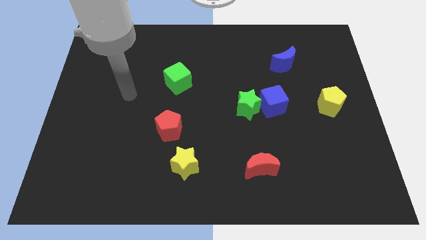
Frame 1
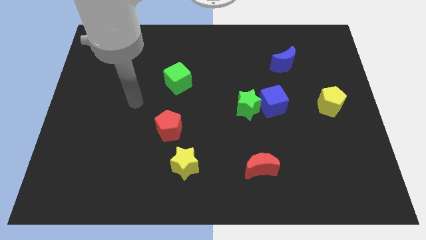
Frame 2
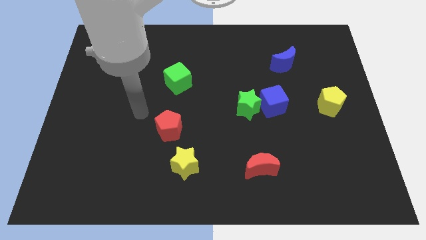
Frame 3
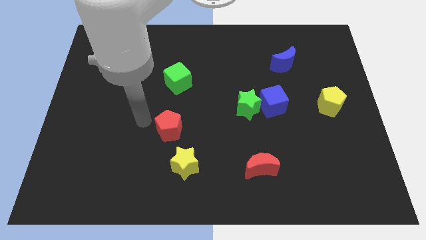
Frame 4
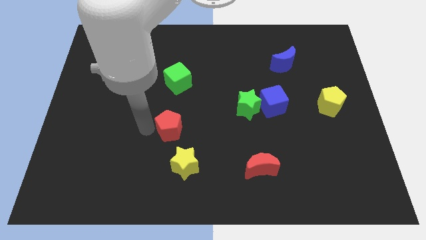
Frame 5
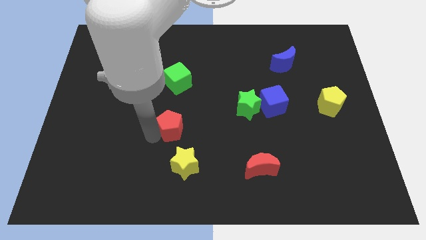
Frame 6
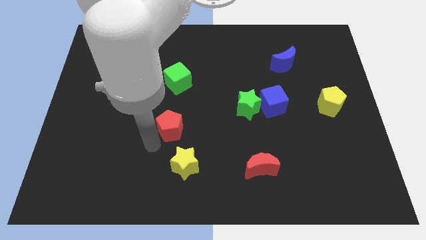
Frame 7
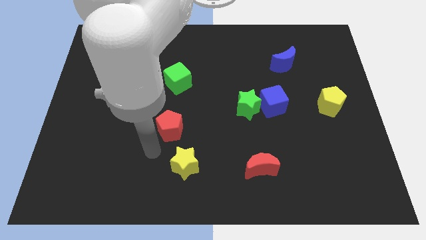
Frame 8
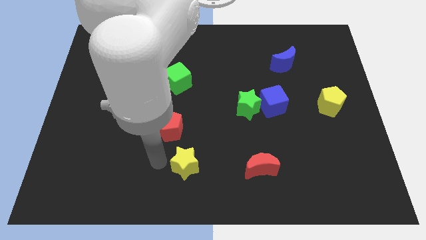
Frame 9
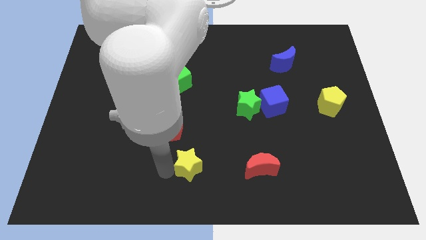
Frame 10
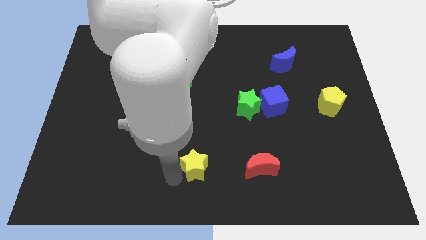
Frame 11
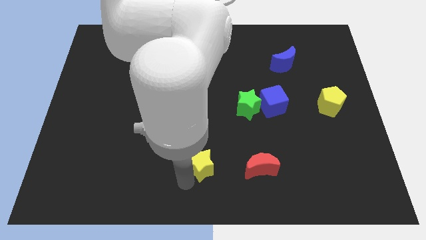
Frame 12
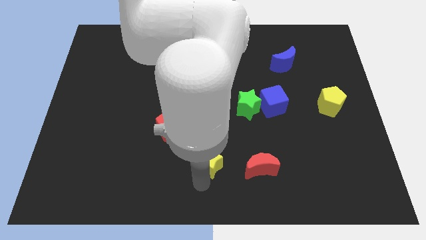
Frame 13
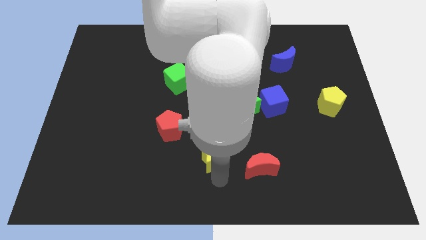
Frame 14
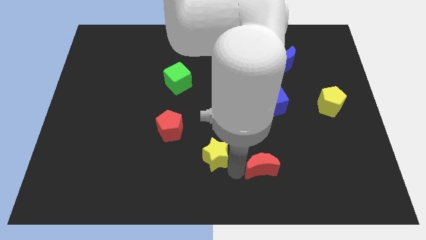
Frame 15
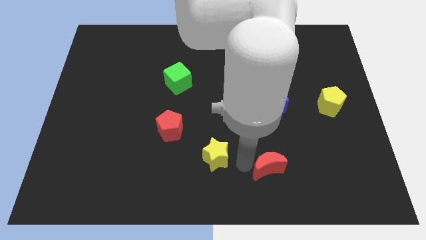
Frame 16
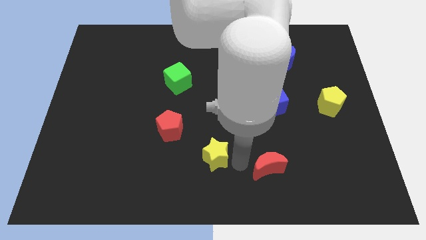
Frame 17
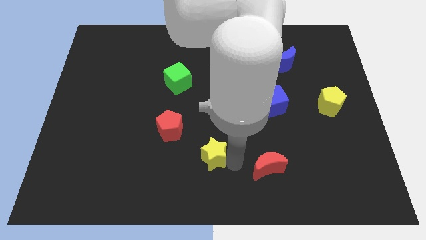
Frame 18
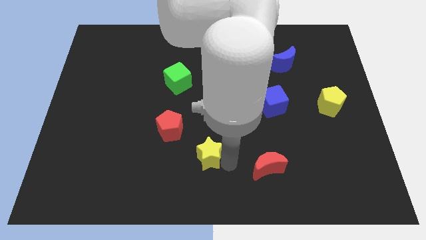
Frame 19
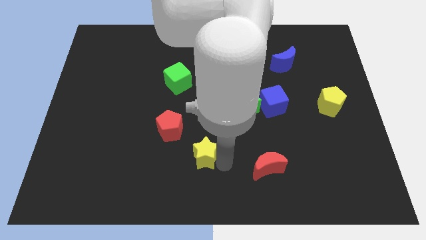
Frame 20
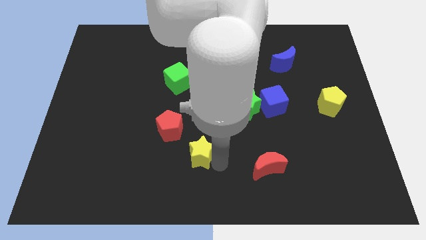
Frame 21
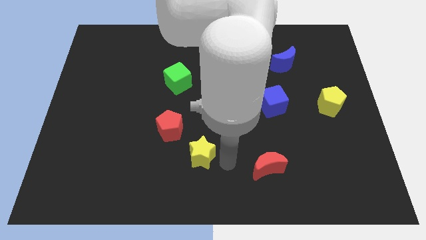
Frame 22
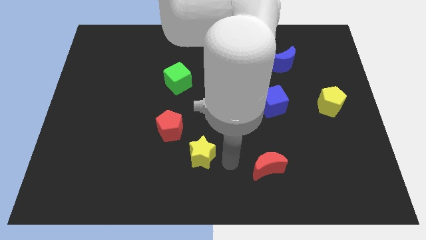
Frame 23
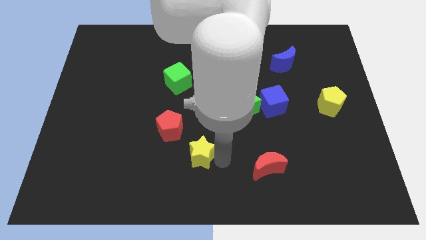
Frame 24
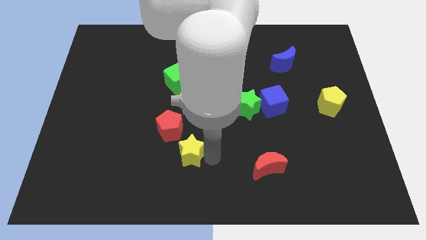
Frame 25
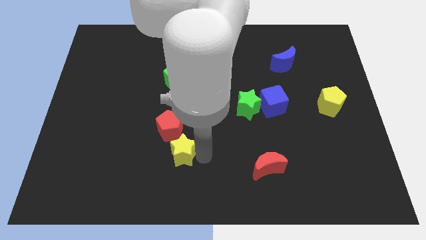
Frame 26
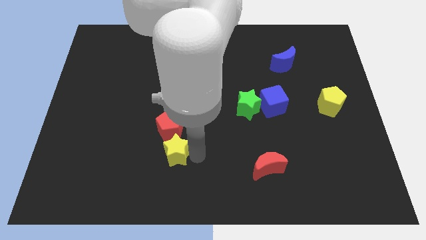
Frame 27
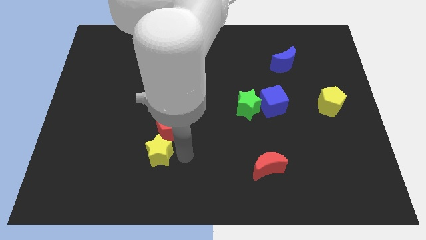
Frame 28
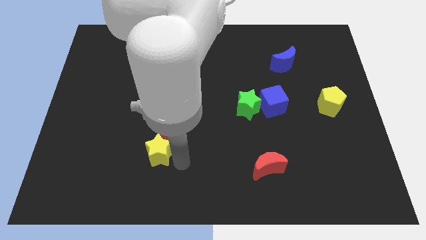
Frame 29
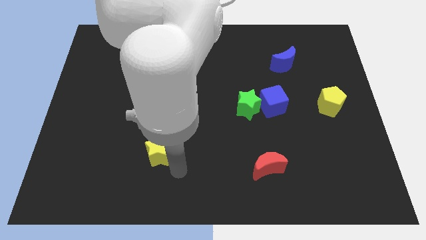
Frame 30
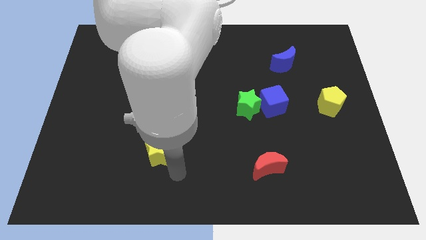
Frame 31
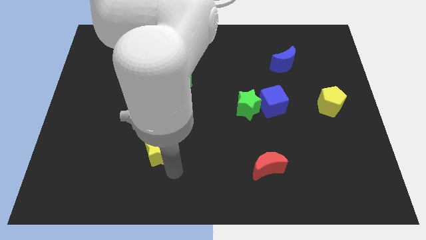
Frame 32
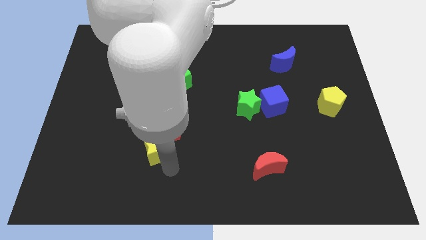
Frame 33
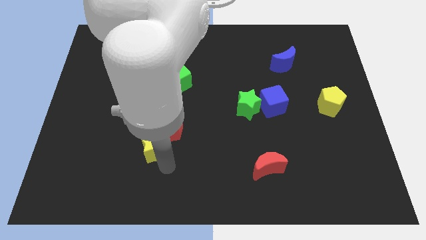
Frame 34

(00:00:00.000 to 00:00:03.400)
slide the yellow star up and then to the left somewhat

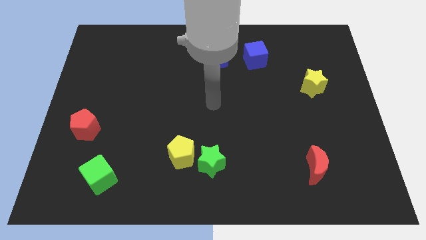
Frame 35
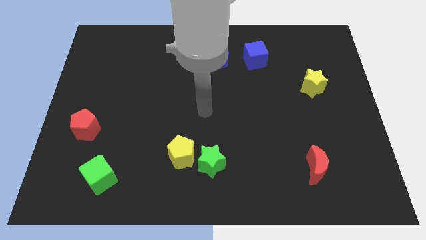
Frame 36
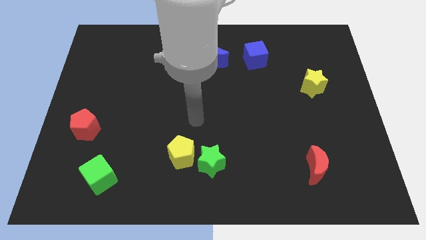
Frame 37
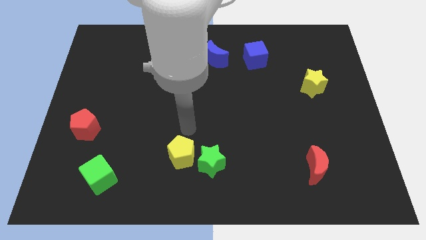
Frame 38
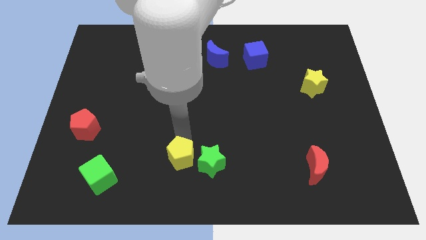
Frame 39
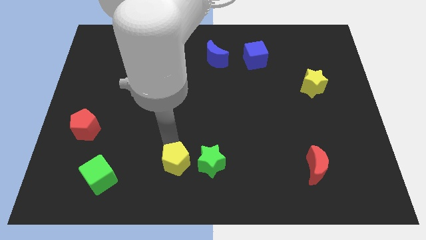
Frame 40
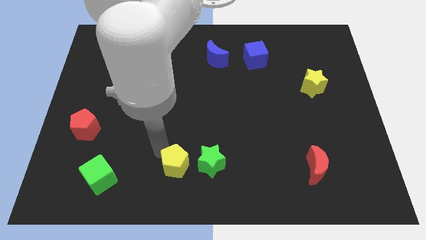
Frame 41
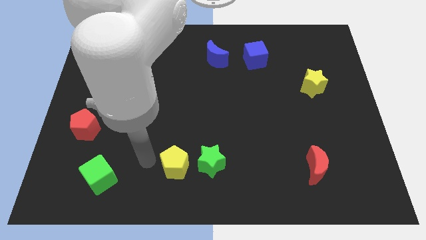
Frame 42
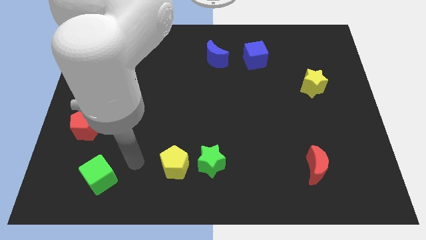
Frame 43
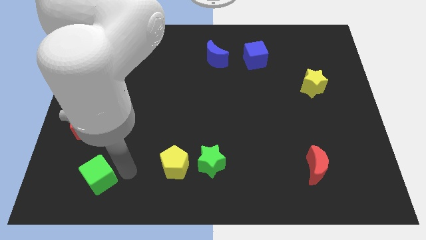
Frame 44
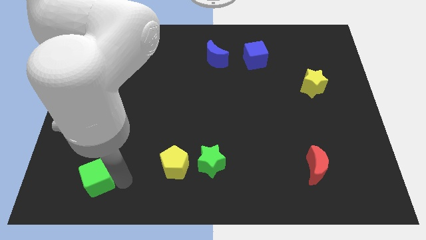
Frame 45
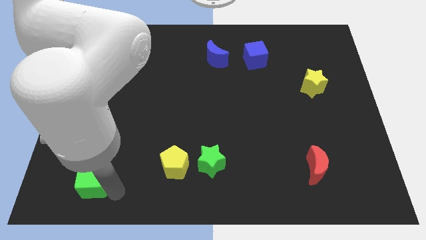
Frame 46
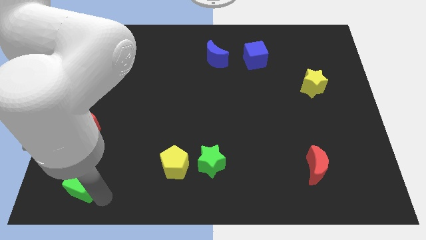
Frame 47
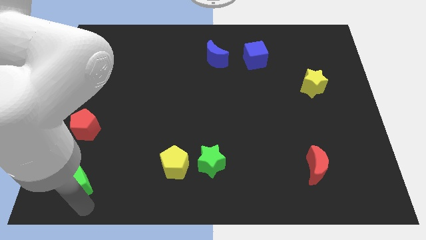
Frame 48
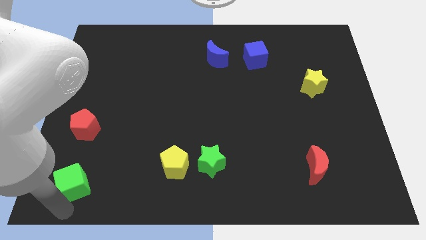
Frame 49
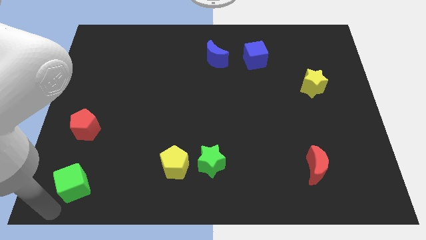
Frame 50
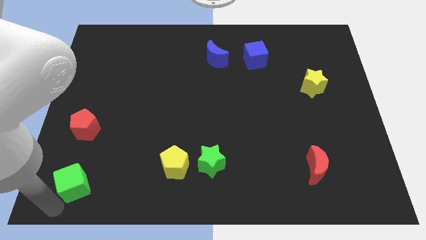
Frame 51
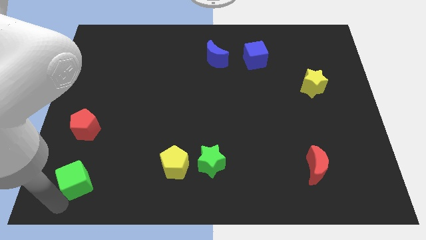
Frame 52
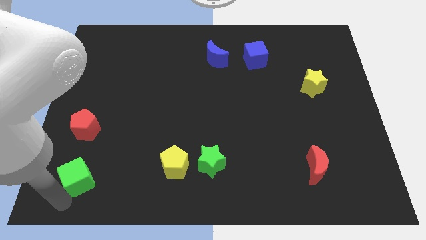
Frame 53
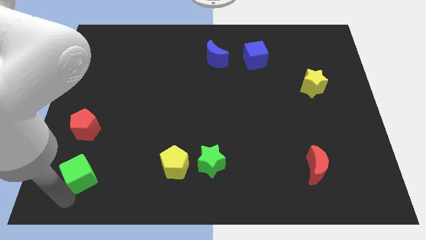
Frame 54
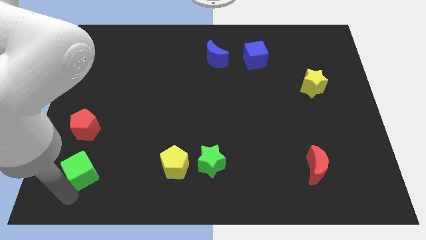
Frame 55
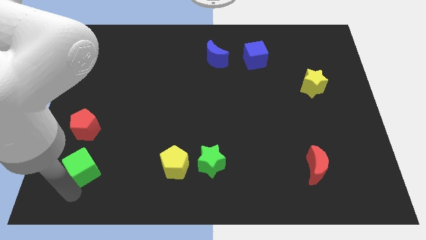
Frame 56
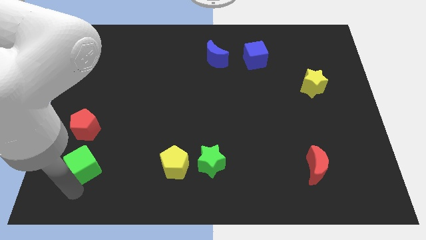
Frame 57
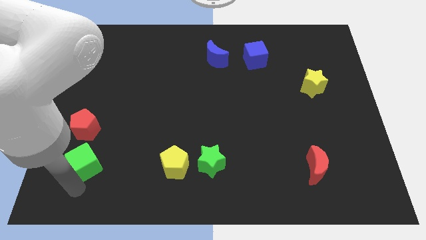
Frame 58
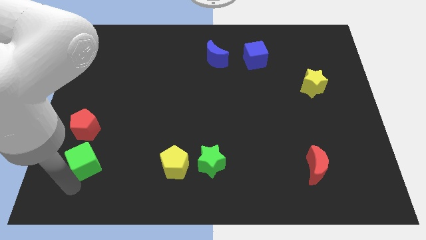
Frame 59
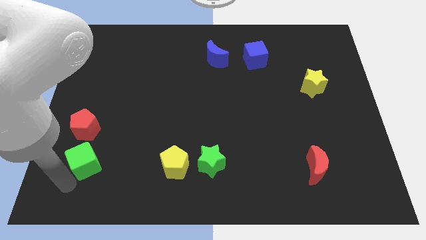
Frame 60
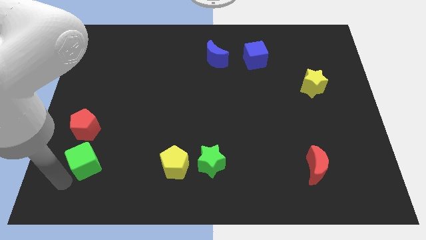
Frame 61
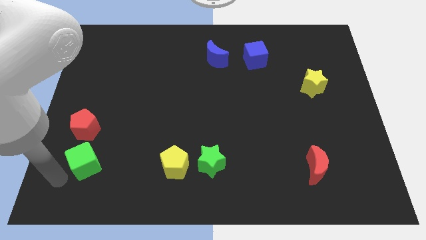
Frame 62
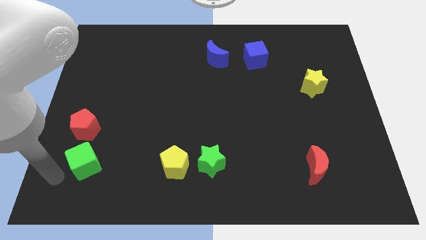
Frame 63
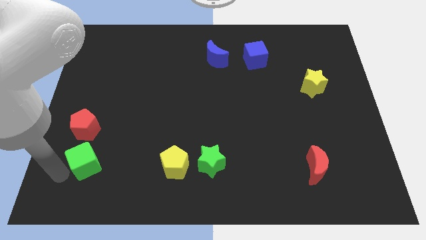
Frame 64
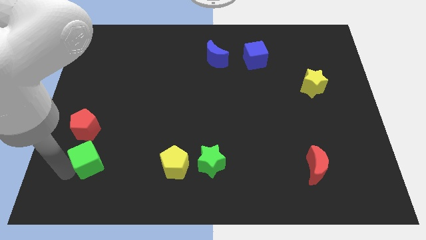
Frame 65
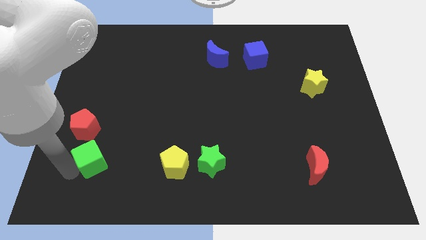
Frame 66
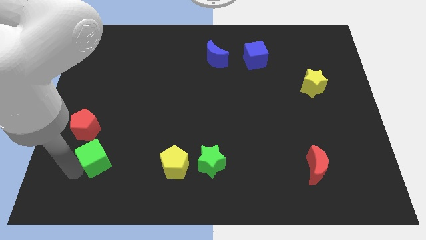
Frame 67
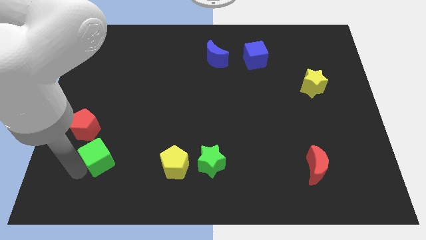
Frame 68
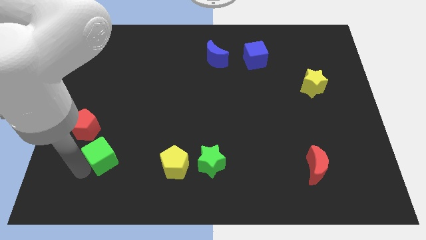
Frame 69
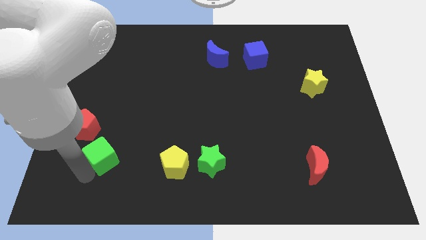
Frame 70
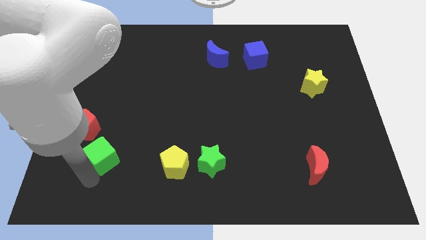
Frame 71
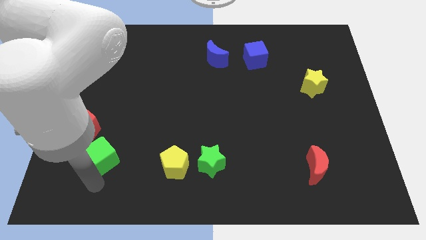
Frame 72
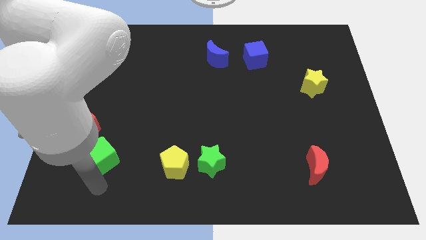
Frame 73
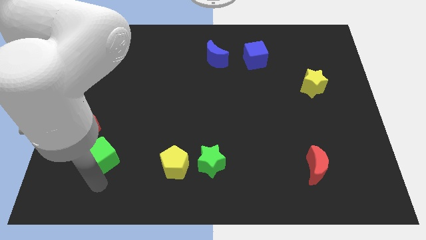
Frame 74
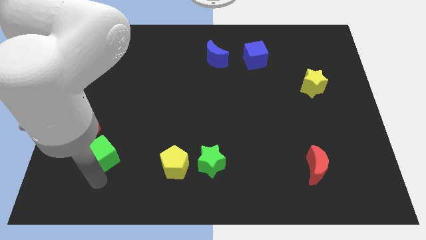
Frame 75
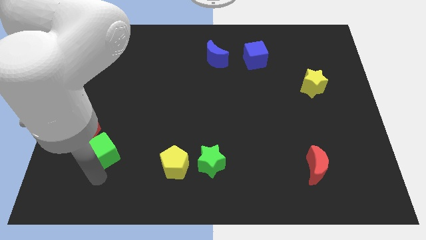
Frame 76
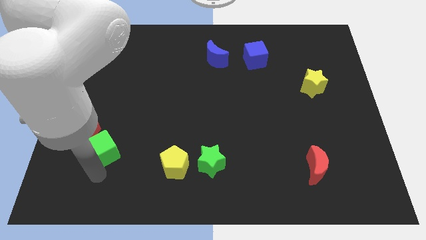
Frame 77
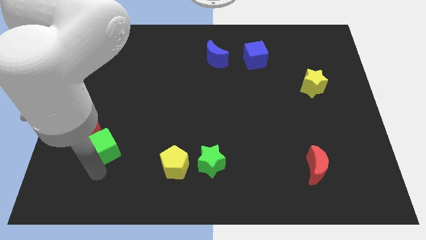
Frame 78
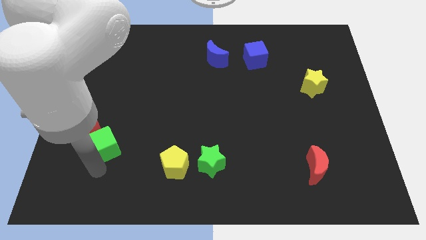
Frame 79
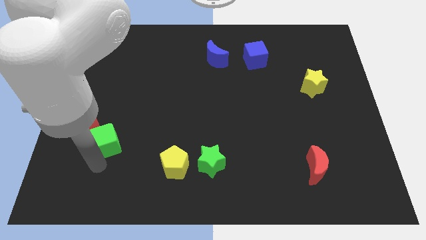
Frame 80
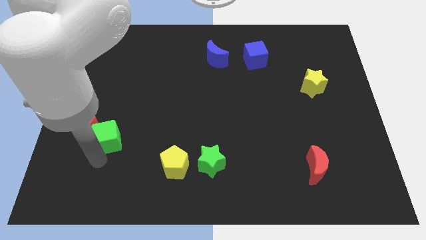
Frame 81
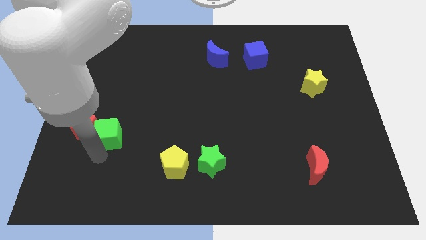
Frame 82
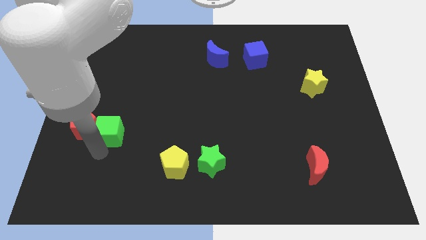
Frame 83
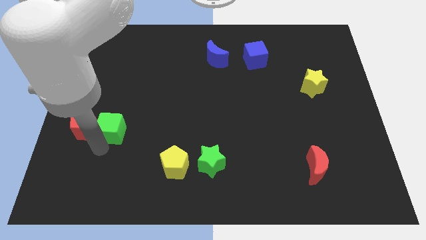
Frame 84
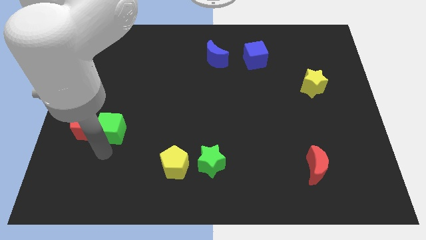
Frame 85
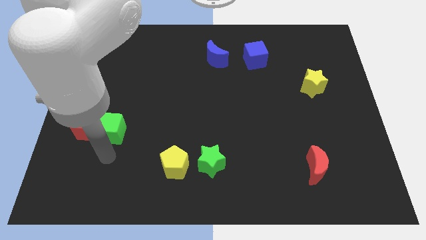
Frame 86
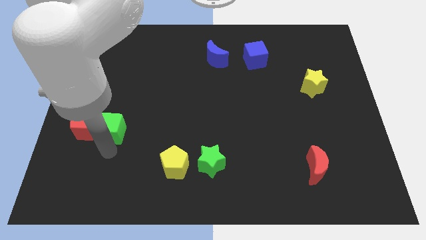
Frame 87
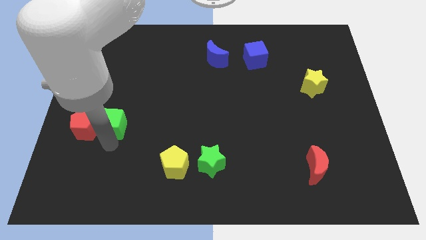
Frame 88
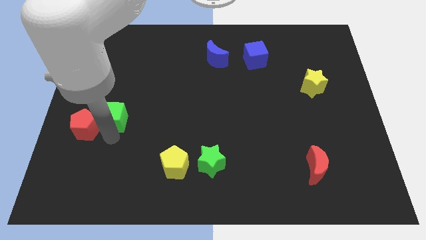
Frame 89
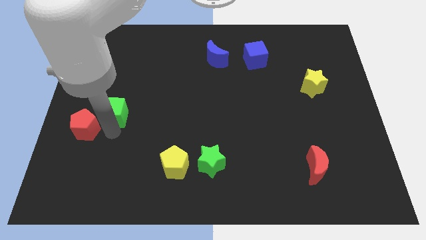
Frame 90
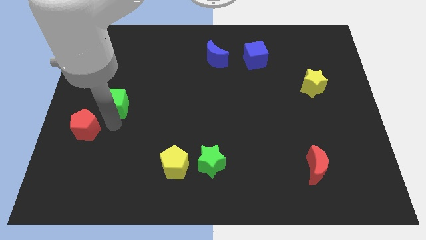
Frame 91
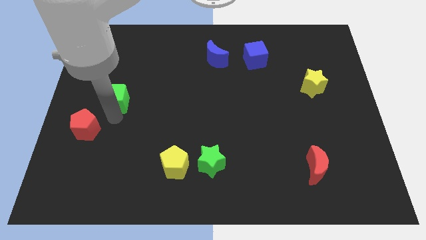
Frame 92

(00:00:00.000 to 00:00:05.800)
move the green cube up
